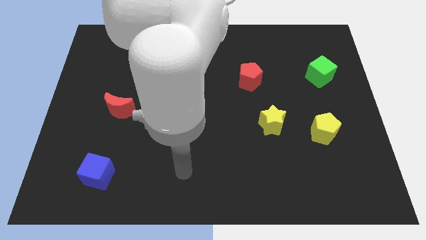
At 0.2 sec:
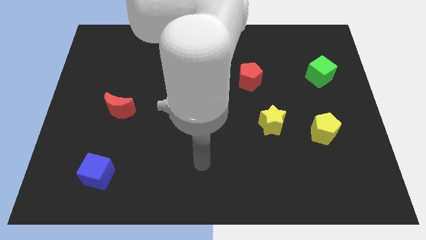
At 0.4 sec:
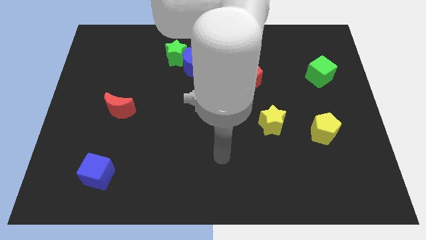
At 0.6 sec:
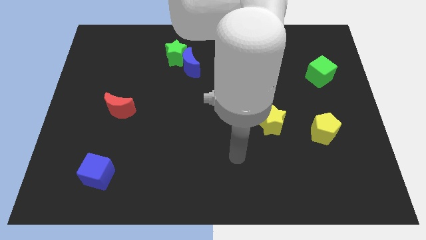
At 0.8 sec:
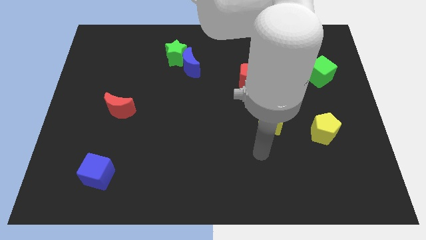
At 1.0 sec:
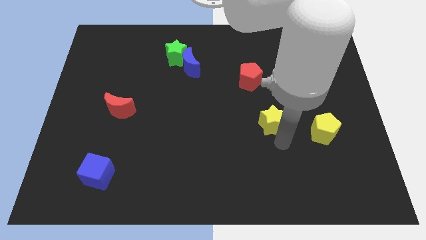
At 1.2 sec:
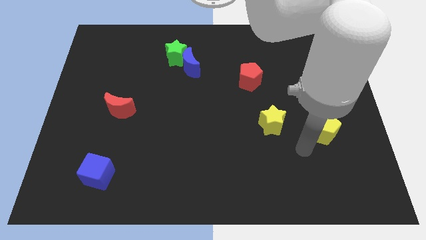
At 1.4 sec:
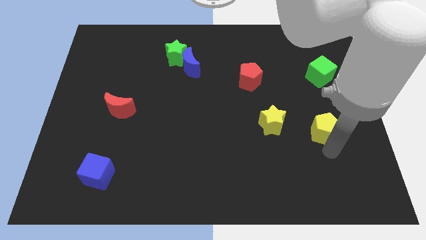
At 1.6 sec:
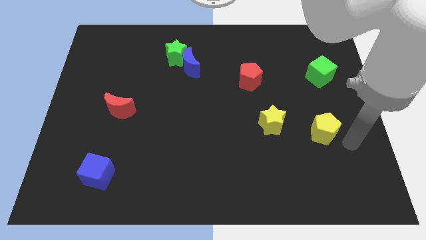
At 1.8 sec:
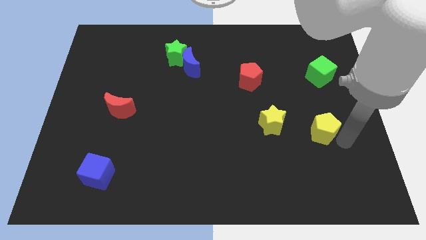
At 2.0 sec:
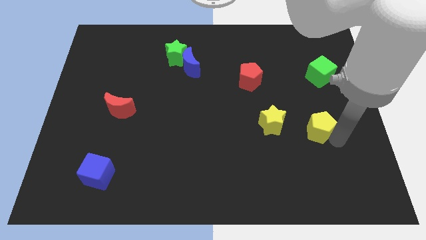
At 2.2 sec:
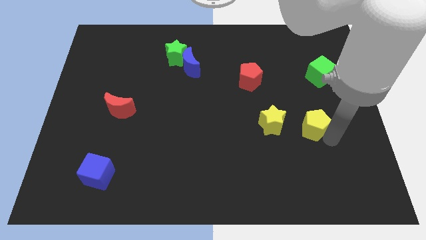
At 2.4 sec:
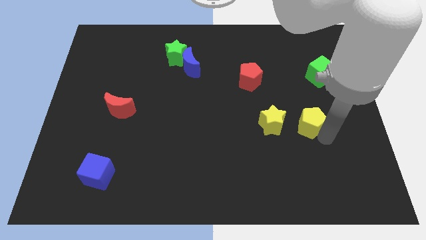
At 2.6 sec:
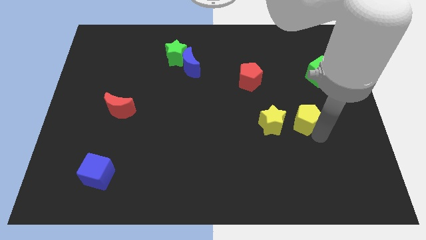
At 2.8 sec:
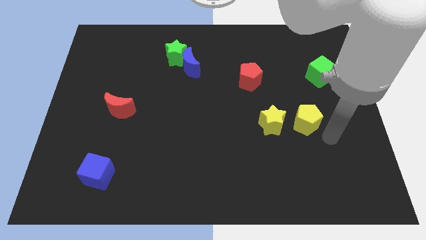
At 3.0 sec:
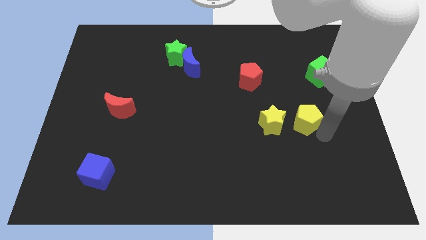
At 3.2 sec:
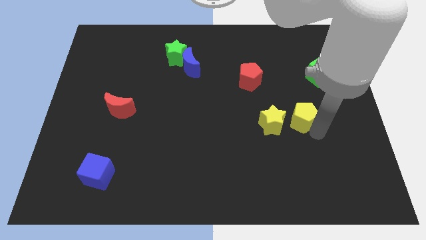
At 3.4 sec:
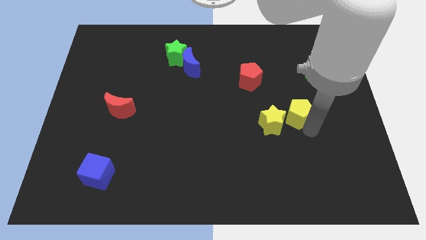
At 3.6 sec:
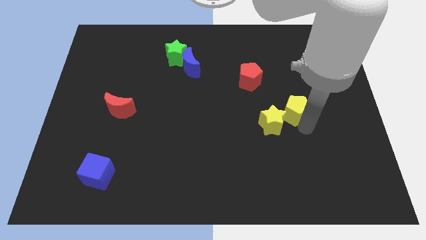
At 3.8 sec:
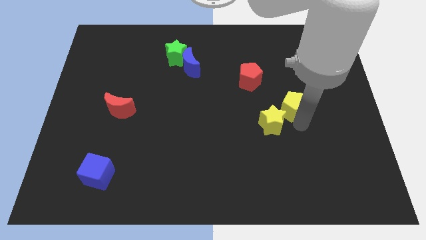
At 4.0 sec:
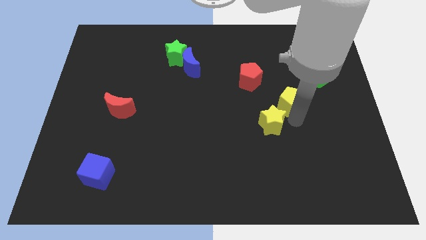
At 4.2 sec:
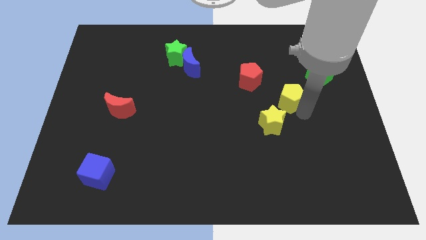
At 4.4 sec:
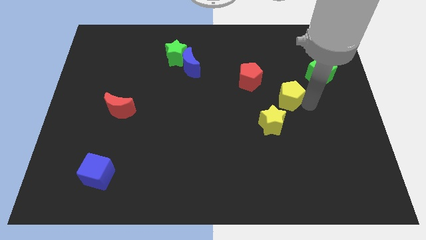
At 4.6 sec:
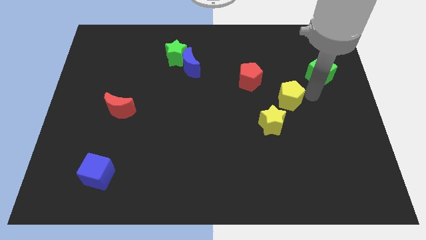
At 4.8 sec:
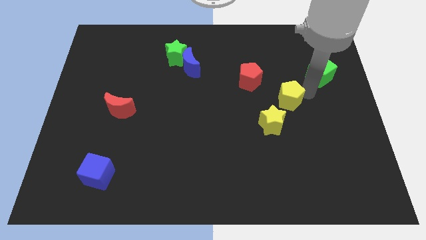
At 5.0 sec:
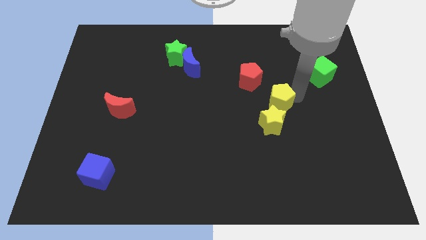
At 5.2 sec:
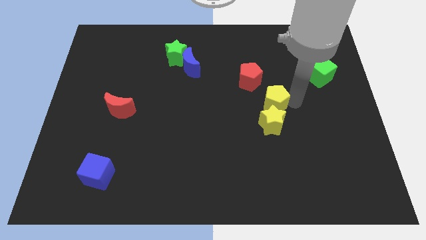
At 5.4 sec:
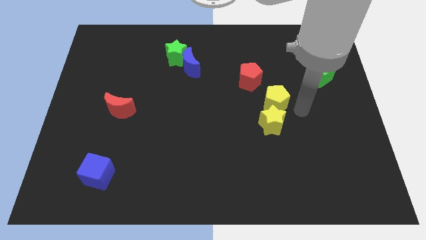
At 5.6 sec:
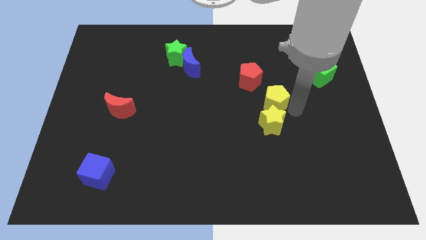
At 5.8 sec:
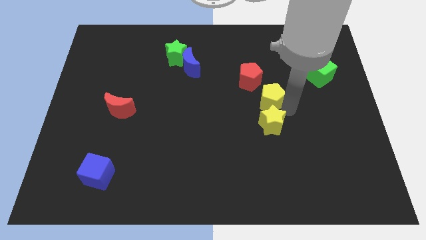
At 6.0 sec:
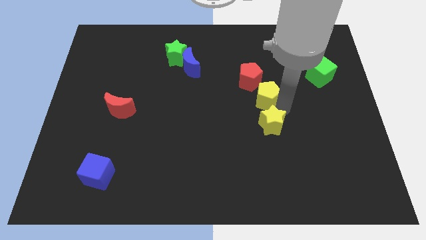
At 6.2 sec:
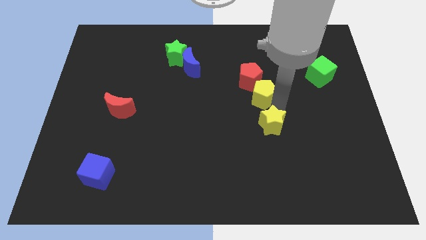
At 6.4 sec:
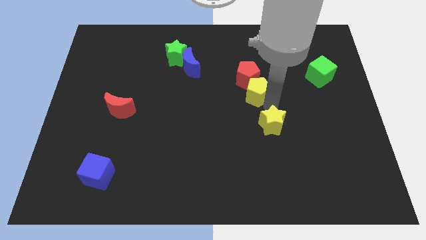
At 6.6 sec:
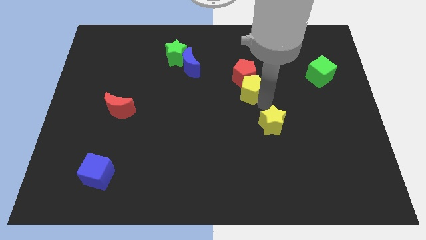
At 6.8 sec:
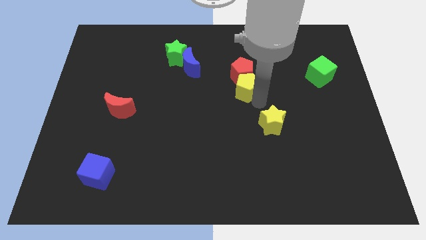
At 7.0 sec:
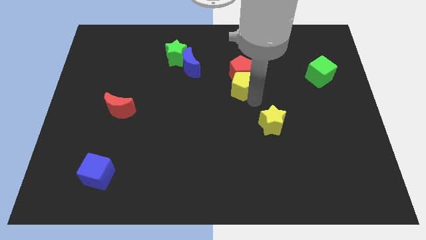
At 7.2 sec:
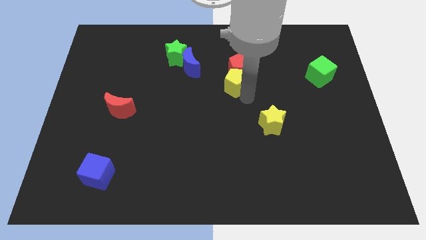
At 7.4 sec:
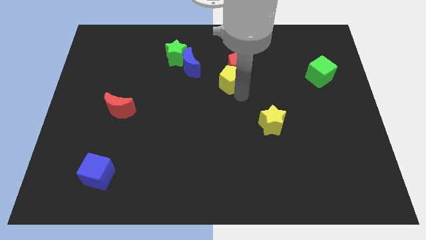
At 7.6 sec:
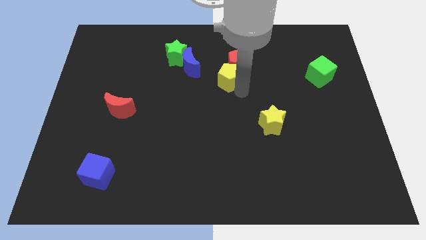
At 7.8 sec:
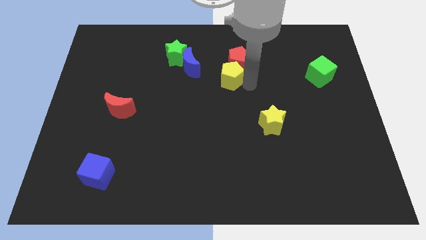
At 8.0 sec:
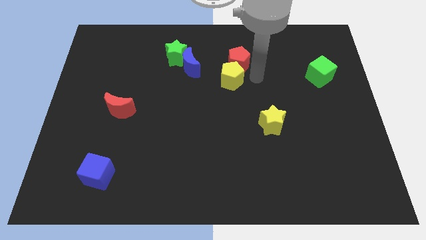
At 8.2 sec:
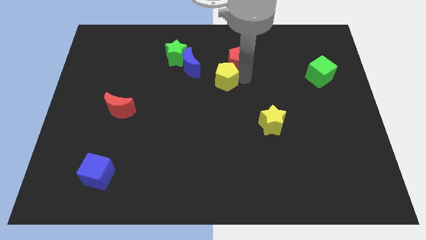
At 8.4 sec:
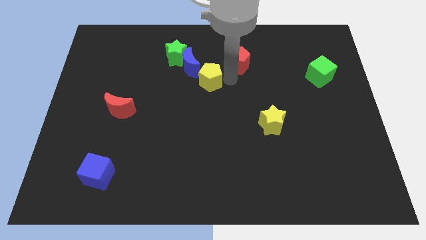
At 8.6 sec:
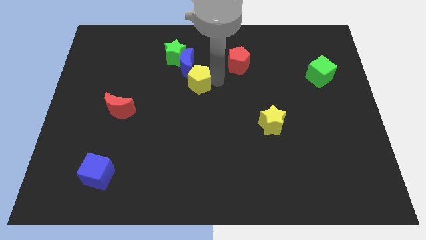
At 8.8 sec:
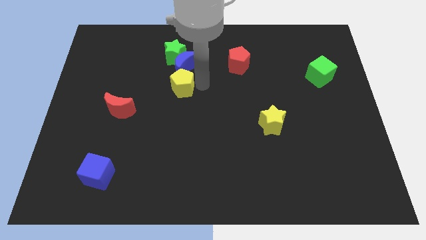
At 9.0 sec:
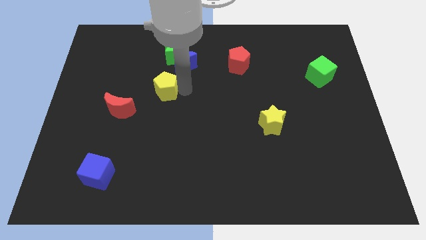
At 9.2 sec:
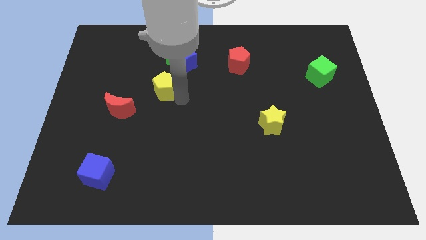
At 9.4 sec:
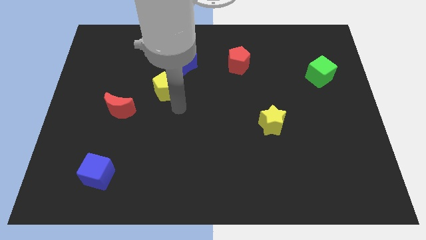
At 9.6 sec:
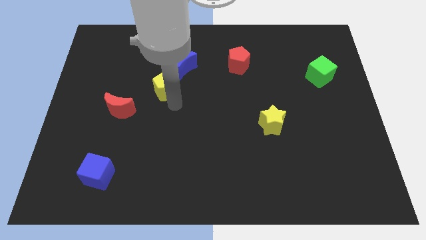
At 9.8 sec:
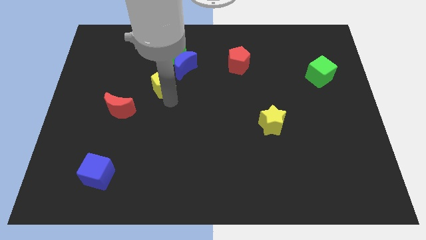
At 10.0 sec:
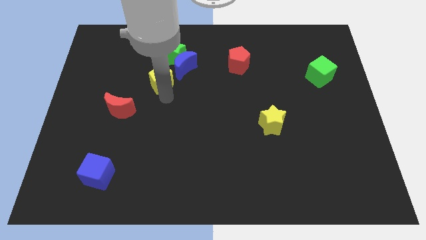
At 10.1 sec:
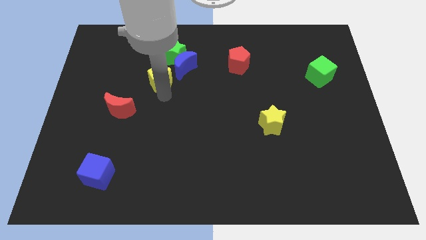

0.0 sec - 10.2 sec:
push the yellow pentagon to the bottom left of the green star

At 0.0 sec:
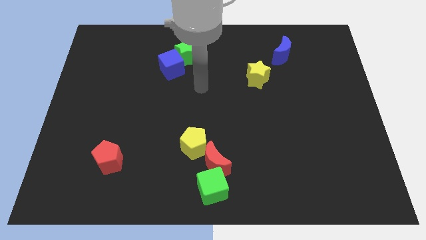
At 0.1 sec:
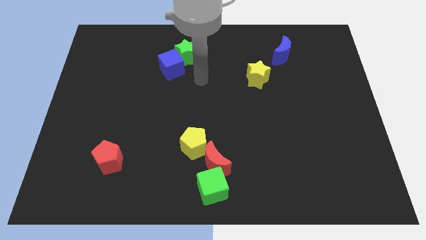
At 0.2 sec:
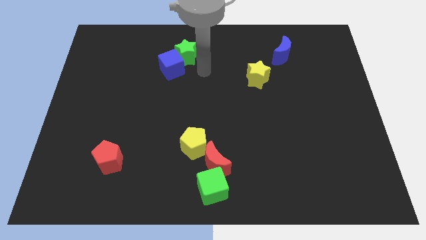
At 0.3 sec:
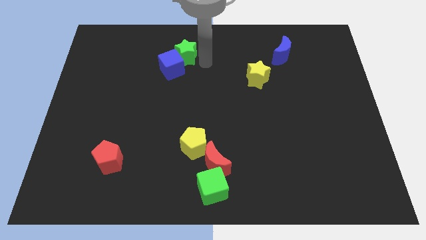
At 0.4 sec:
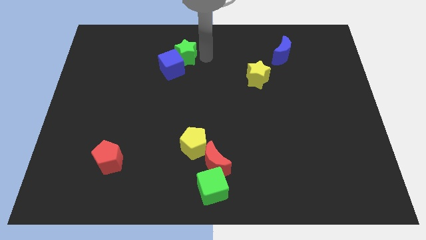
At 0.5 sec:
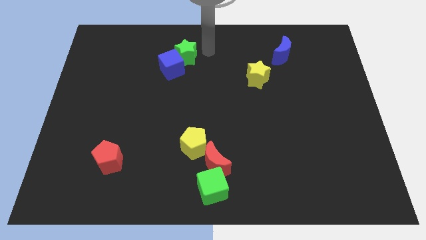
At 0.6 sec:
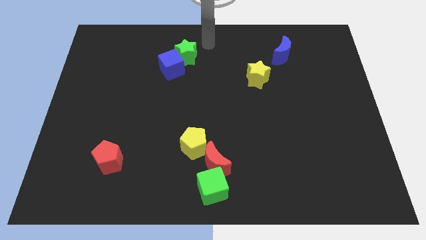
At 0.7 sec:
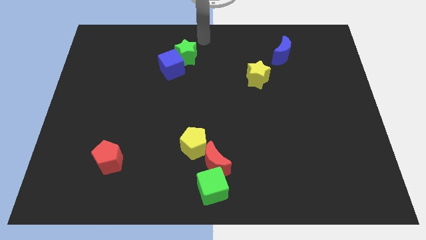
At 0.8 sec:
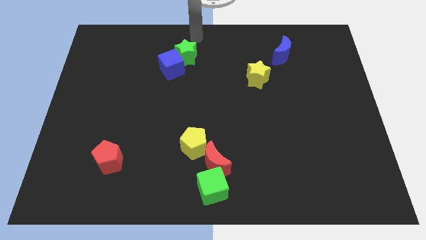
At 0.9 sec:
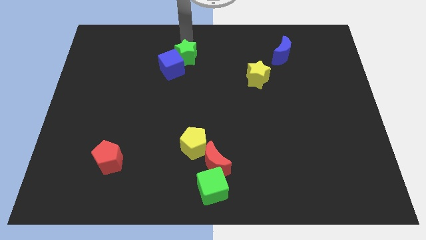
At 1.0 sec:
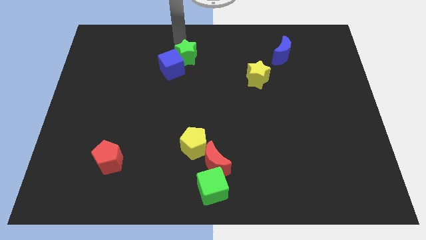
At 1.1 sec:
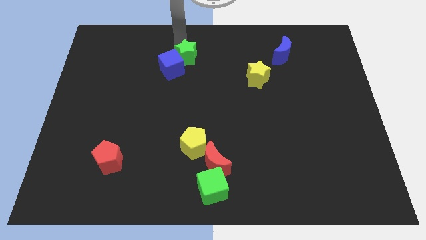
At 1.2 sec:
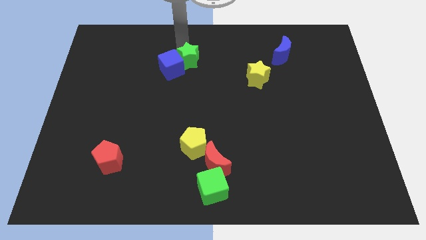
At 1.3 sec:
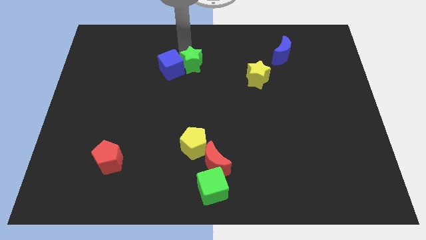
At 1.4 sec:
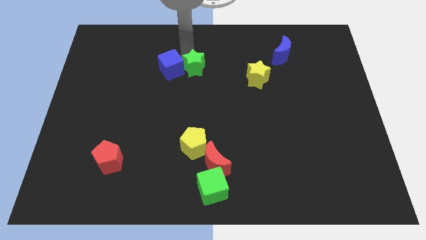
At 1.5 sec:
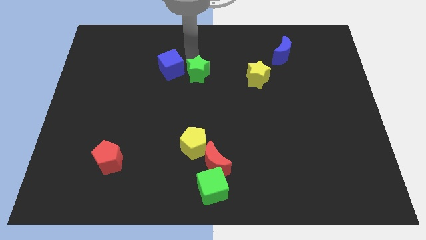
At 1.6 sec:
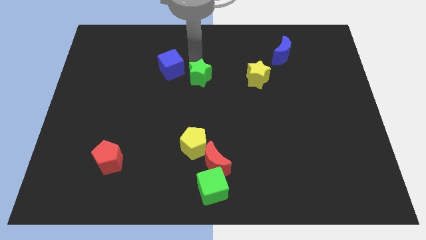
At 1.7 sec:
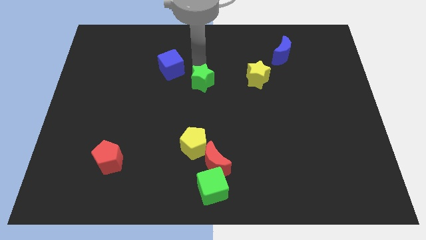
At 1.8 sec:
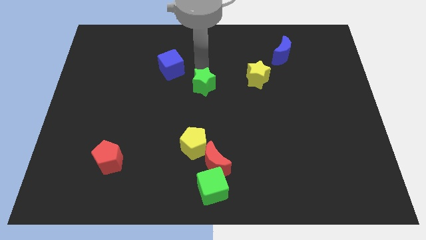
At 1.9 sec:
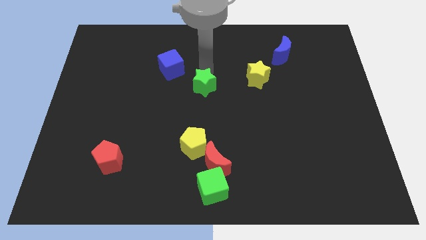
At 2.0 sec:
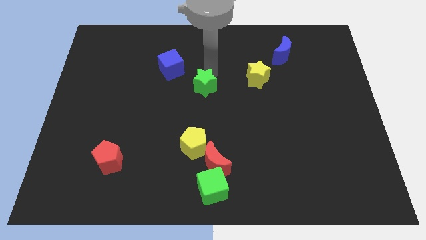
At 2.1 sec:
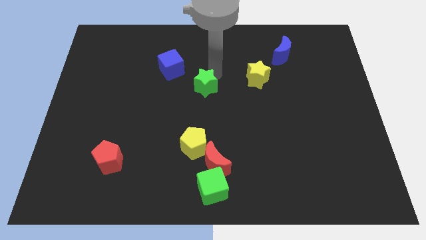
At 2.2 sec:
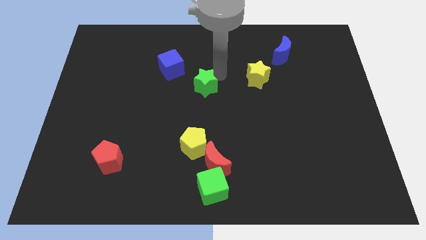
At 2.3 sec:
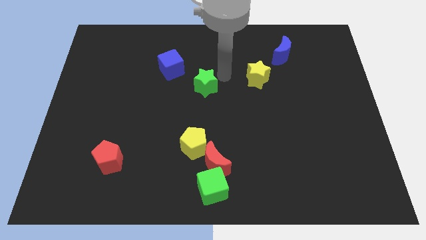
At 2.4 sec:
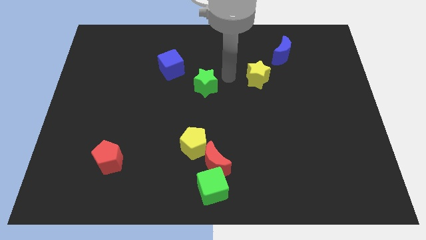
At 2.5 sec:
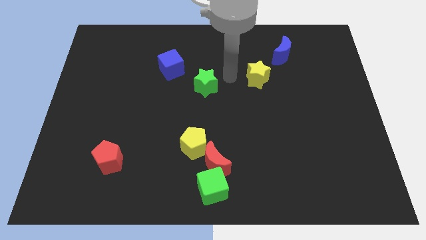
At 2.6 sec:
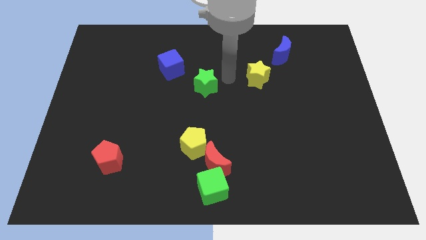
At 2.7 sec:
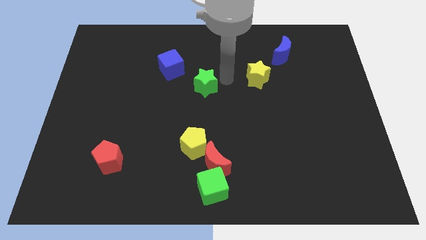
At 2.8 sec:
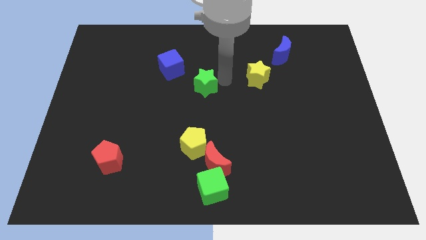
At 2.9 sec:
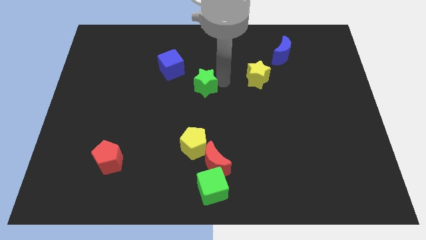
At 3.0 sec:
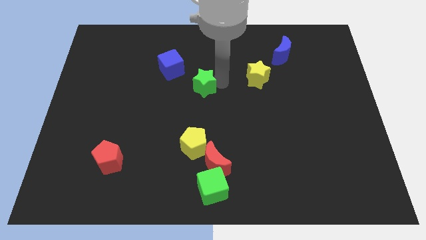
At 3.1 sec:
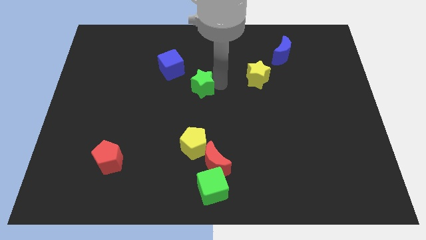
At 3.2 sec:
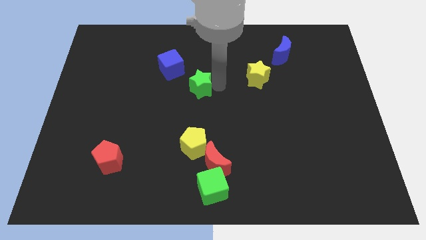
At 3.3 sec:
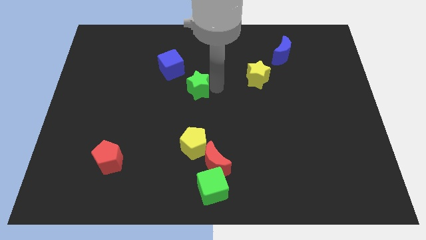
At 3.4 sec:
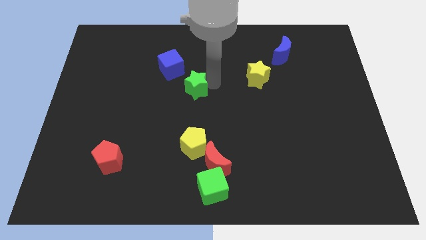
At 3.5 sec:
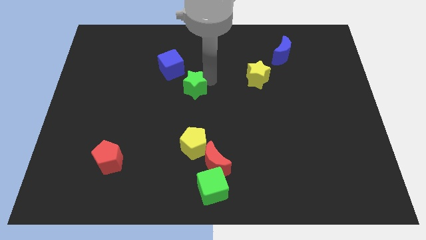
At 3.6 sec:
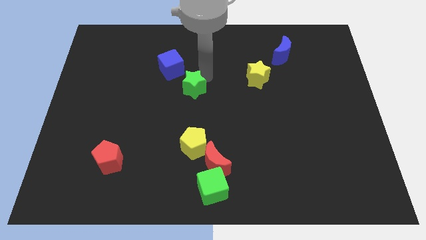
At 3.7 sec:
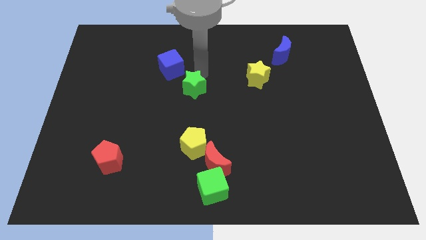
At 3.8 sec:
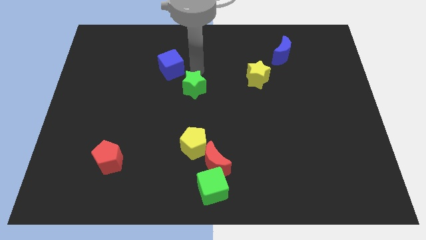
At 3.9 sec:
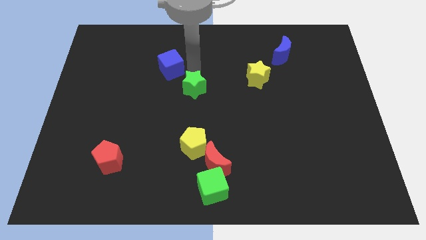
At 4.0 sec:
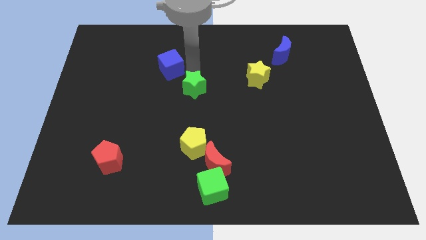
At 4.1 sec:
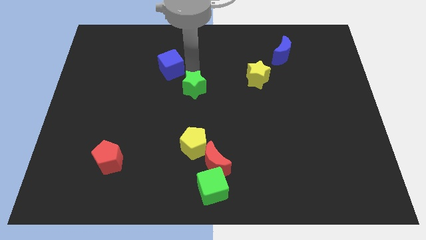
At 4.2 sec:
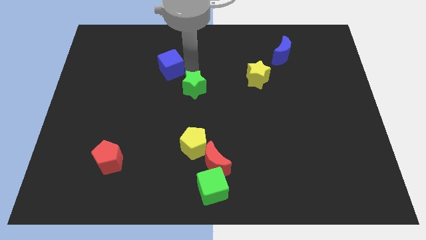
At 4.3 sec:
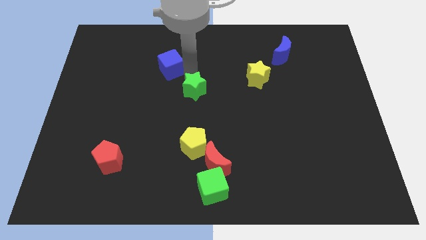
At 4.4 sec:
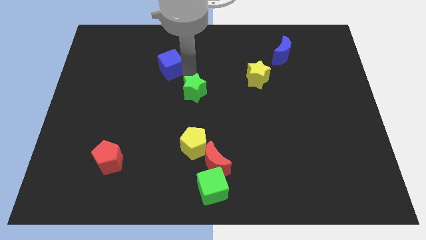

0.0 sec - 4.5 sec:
put the green star to the top side of the yellow pentagon
